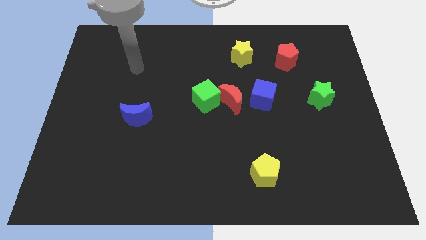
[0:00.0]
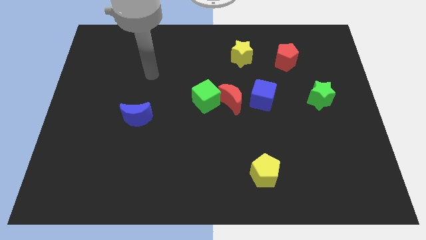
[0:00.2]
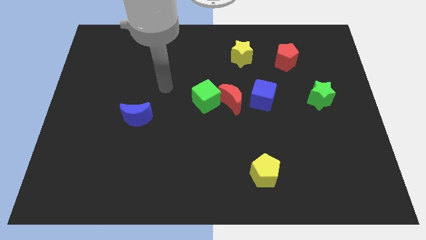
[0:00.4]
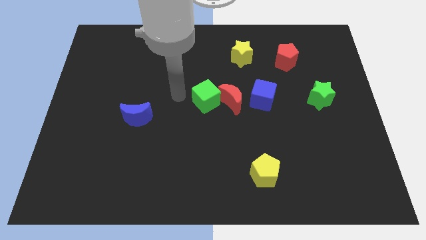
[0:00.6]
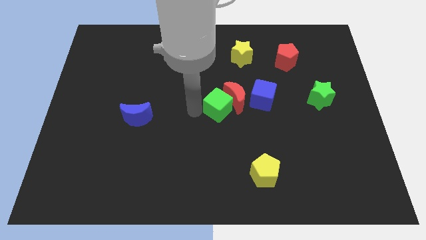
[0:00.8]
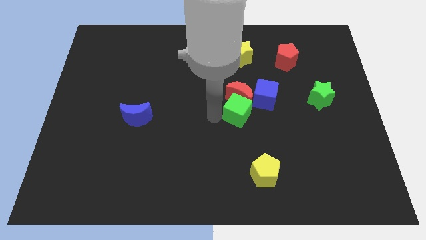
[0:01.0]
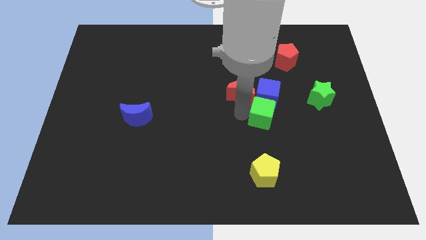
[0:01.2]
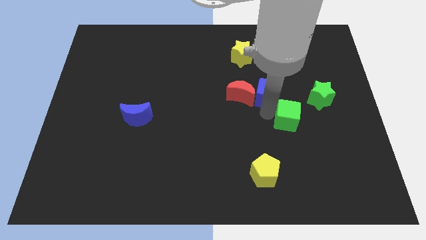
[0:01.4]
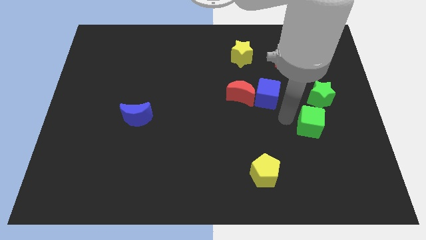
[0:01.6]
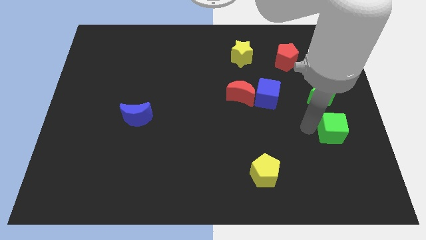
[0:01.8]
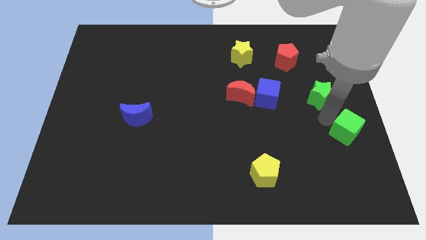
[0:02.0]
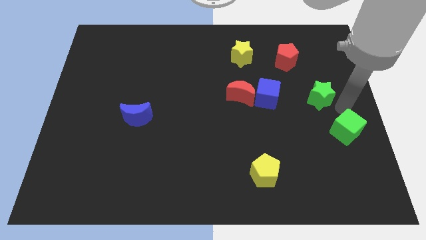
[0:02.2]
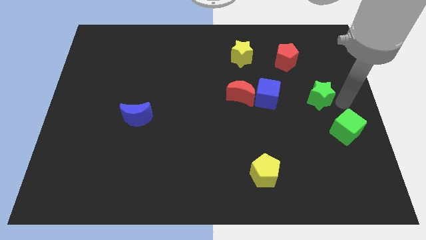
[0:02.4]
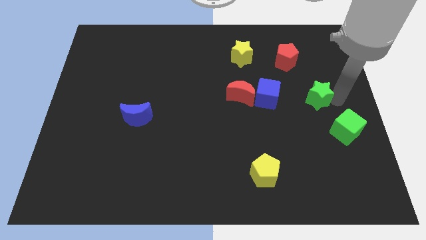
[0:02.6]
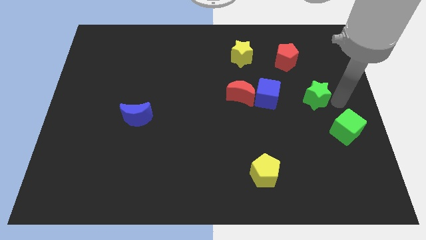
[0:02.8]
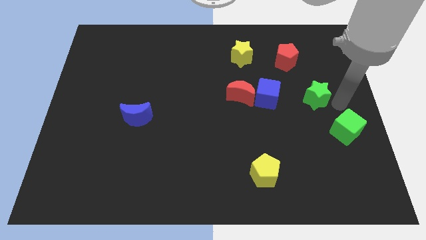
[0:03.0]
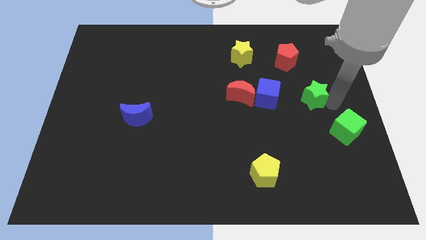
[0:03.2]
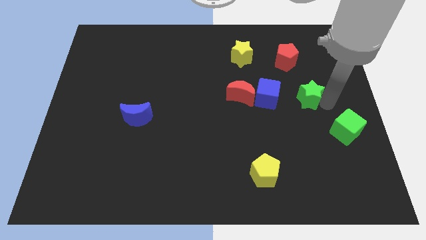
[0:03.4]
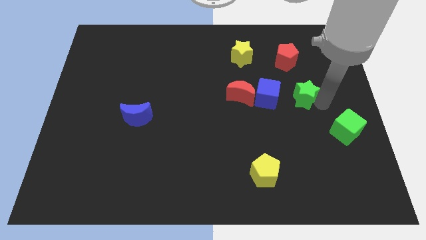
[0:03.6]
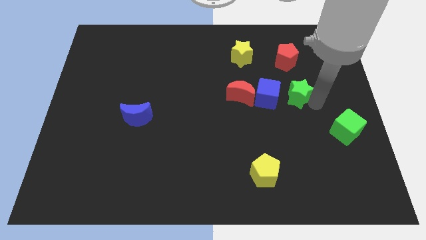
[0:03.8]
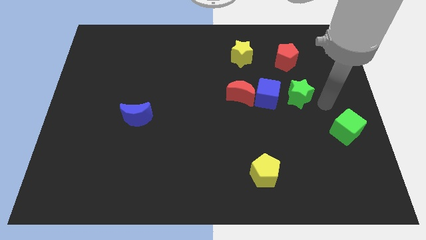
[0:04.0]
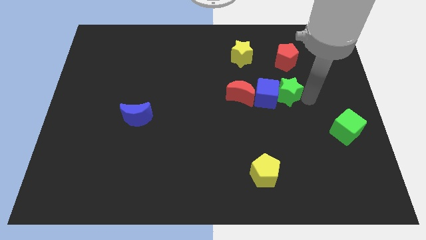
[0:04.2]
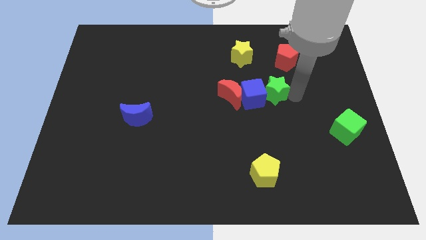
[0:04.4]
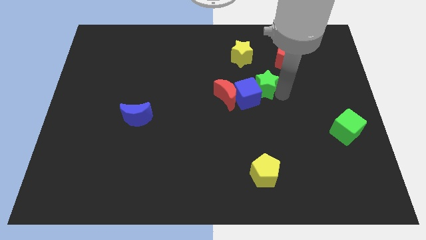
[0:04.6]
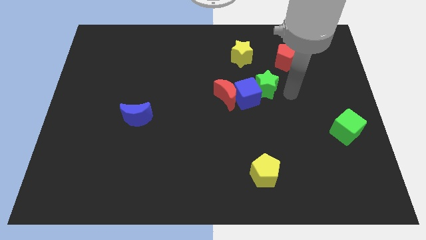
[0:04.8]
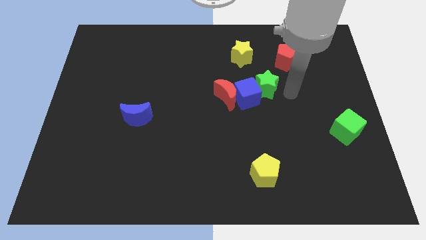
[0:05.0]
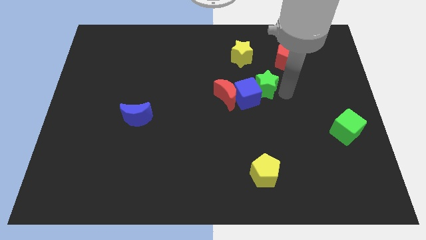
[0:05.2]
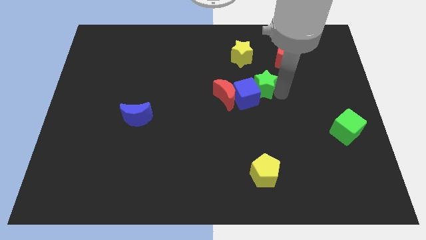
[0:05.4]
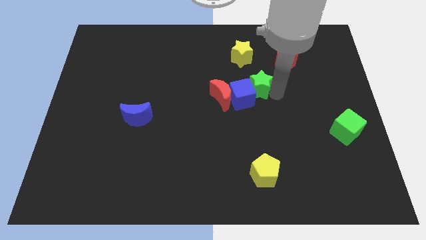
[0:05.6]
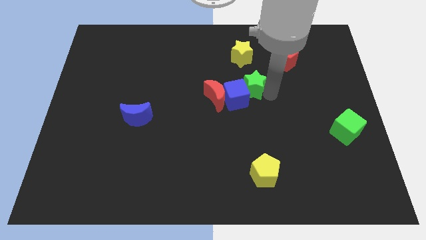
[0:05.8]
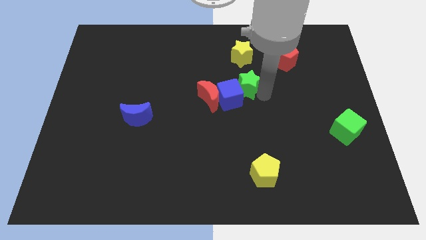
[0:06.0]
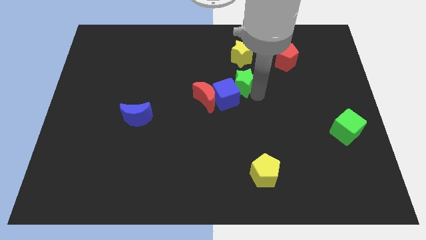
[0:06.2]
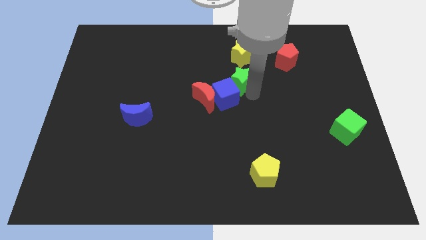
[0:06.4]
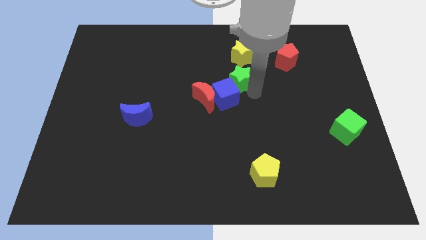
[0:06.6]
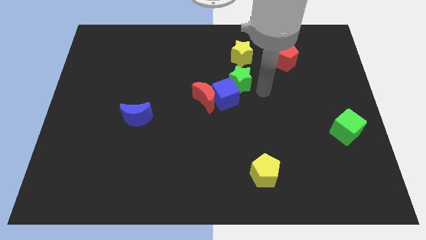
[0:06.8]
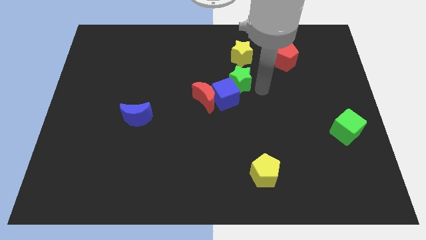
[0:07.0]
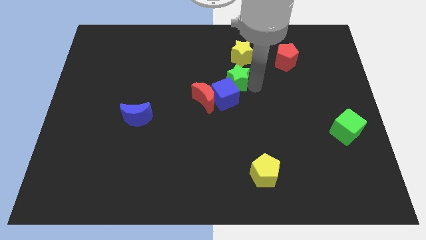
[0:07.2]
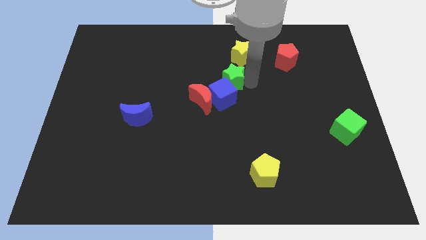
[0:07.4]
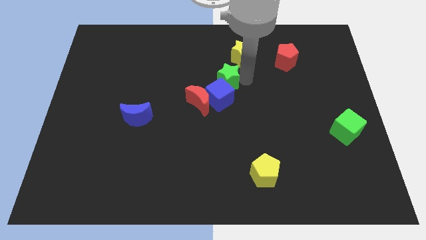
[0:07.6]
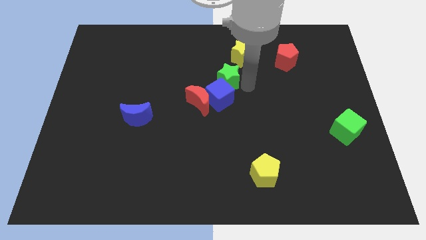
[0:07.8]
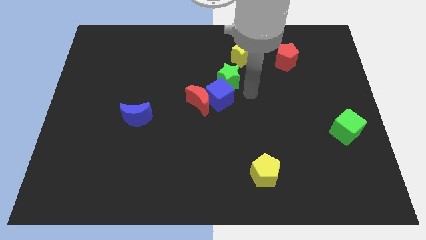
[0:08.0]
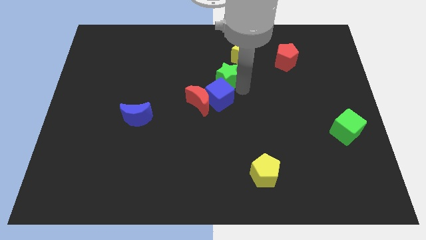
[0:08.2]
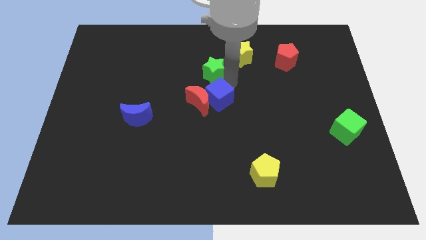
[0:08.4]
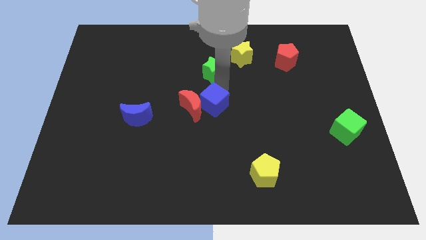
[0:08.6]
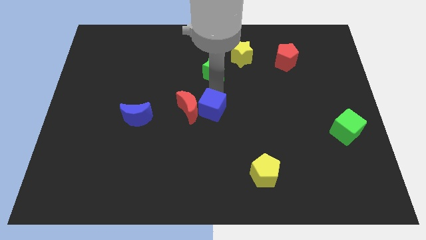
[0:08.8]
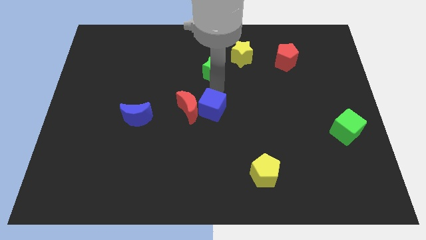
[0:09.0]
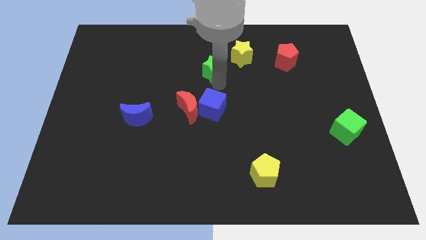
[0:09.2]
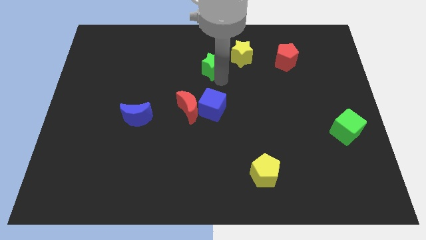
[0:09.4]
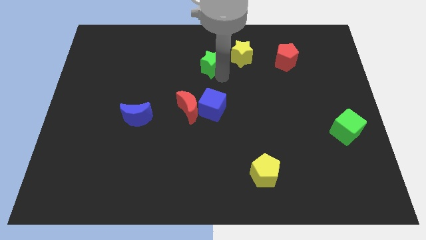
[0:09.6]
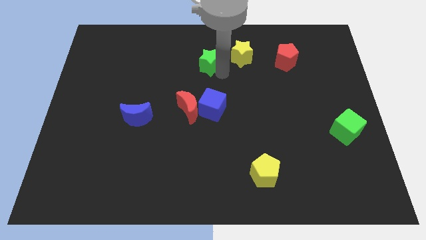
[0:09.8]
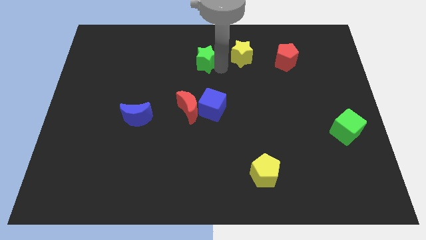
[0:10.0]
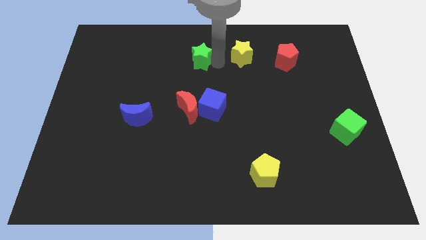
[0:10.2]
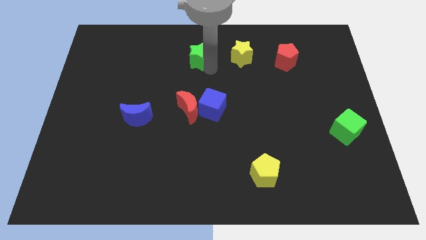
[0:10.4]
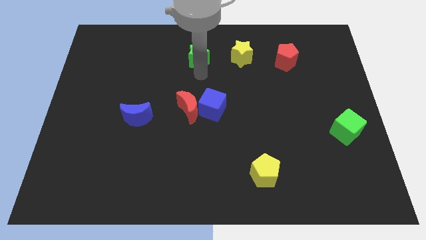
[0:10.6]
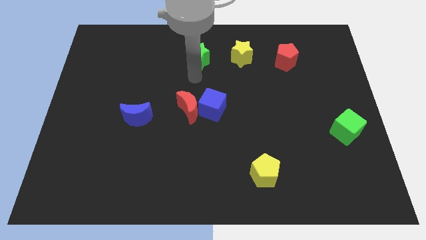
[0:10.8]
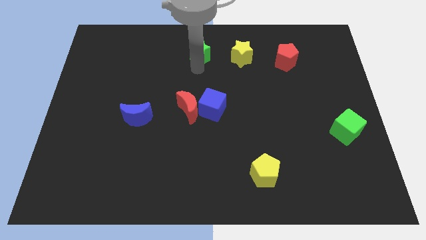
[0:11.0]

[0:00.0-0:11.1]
put the green star to the top side

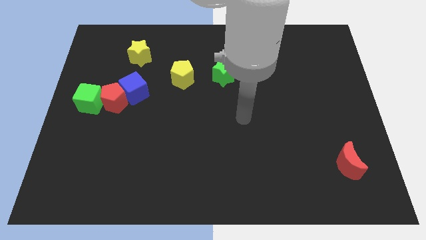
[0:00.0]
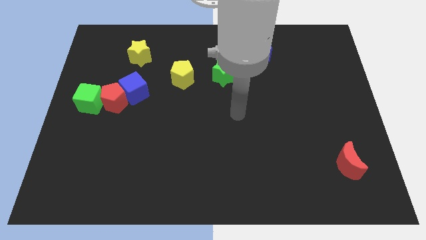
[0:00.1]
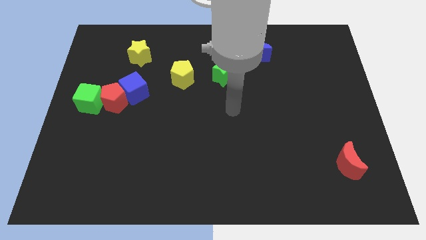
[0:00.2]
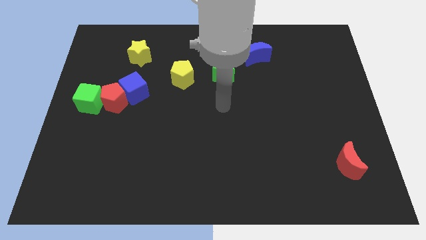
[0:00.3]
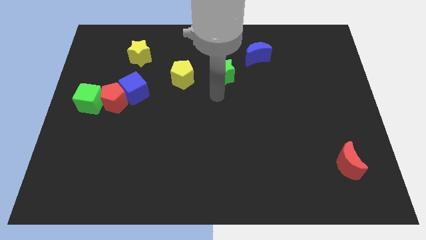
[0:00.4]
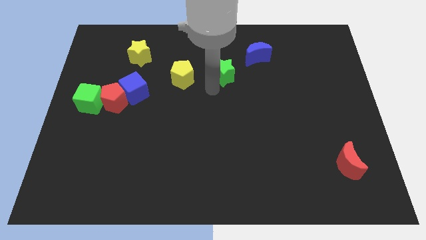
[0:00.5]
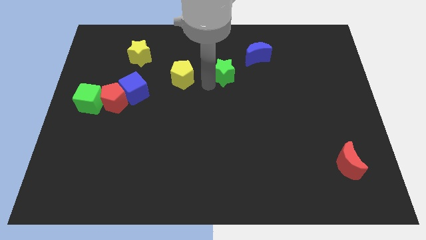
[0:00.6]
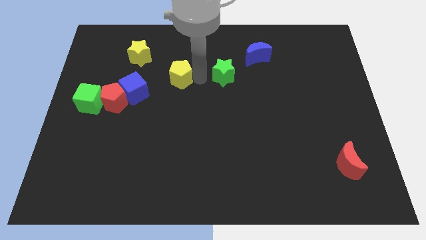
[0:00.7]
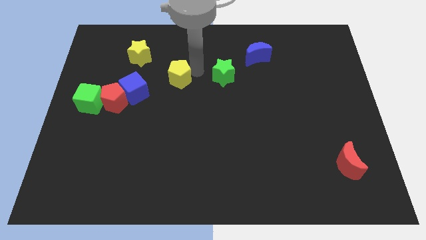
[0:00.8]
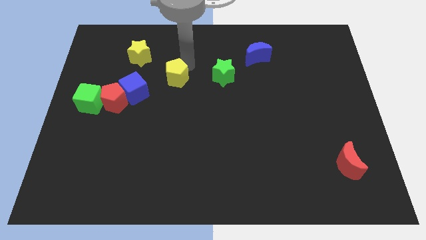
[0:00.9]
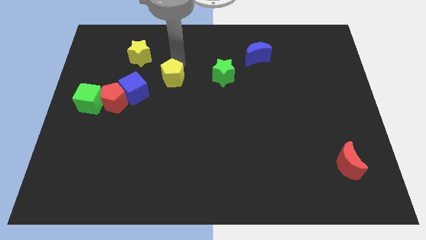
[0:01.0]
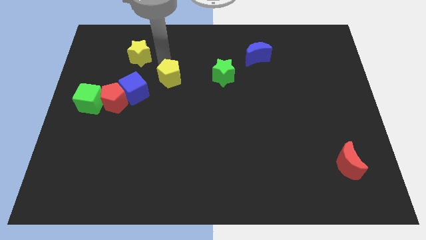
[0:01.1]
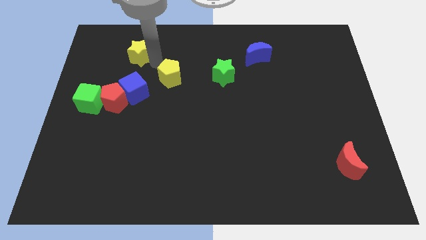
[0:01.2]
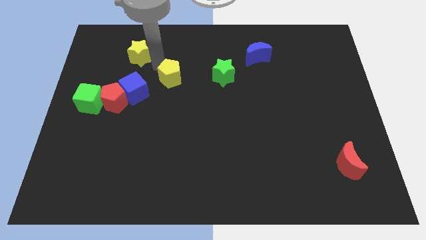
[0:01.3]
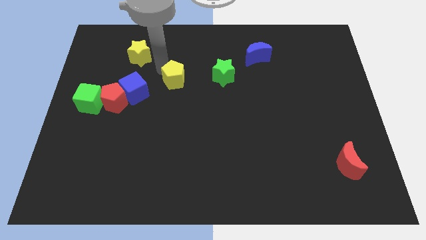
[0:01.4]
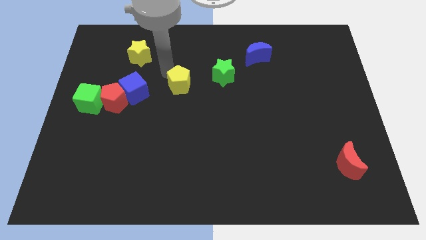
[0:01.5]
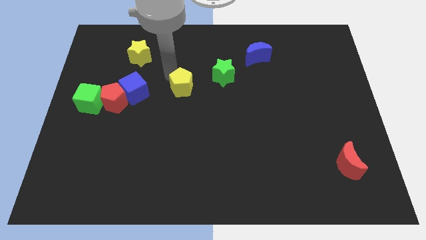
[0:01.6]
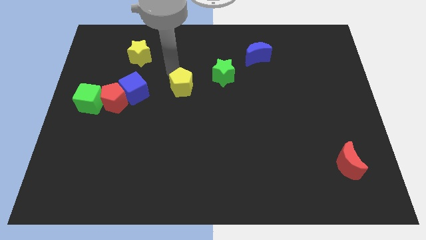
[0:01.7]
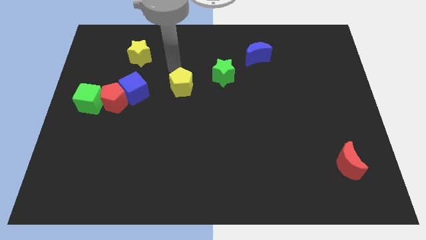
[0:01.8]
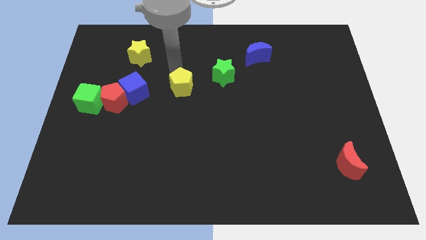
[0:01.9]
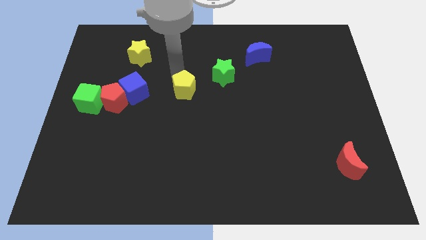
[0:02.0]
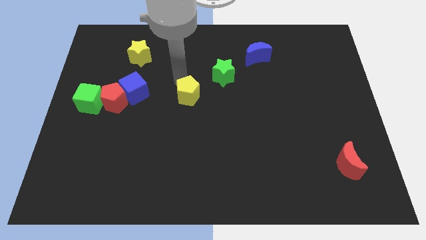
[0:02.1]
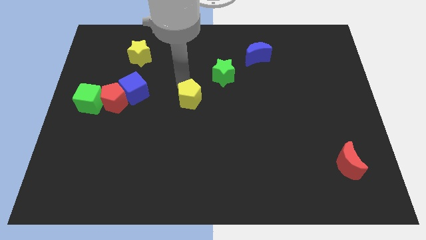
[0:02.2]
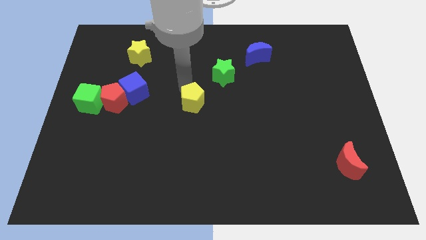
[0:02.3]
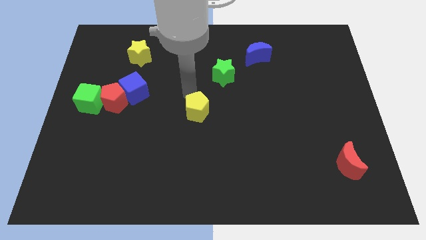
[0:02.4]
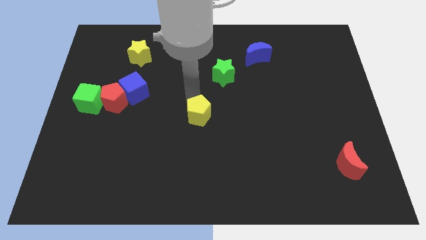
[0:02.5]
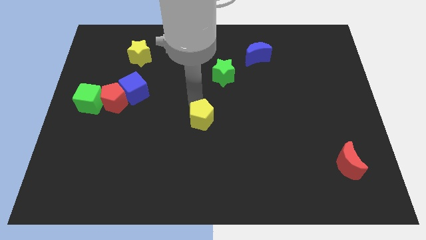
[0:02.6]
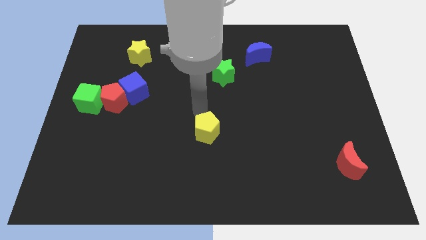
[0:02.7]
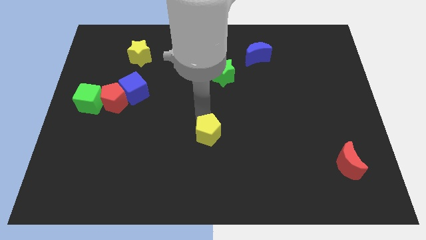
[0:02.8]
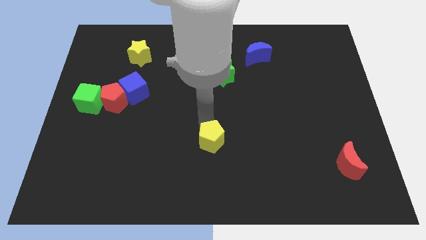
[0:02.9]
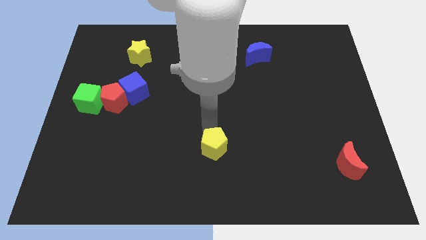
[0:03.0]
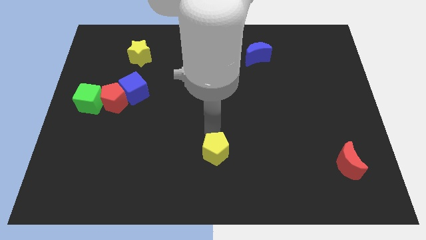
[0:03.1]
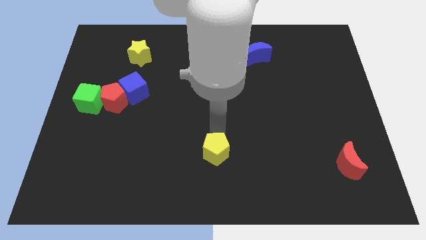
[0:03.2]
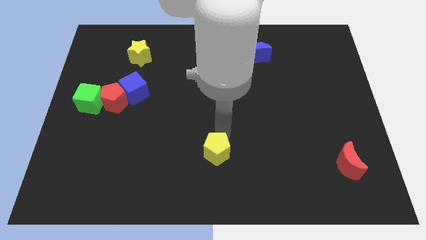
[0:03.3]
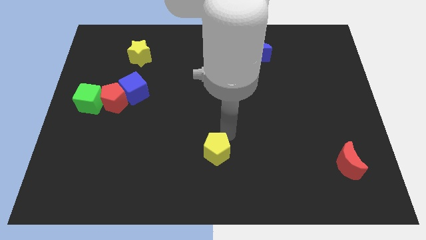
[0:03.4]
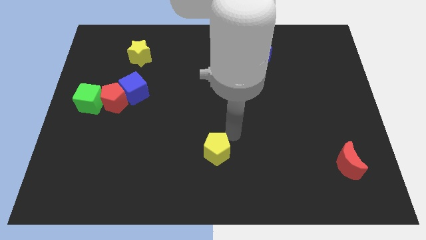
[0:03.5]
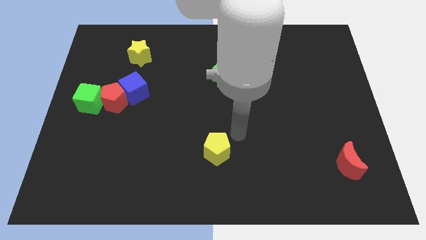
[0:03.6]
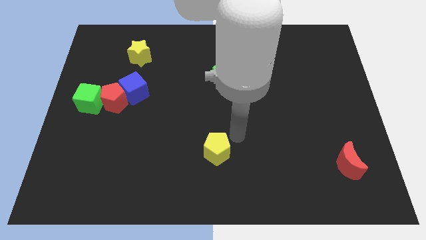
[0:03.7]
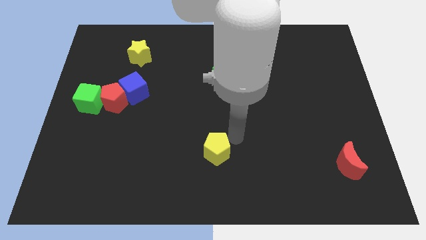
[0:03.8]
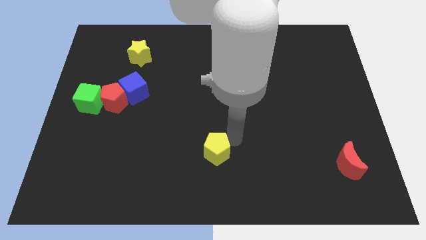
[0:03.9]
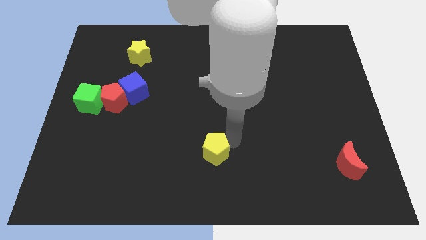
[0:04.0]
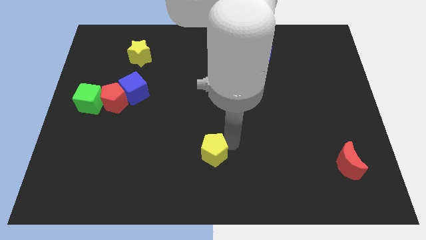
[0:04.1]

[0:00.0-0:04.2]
put the yellow pentagon to the bottom side
